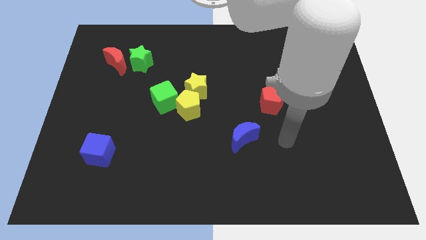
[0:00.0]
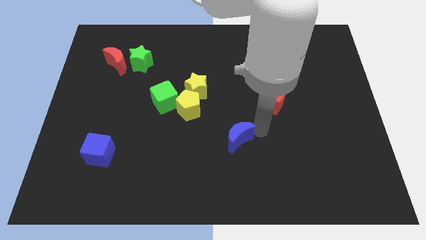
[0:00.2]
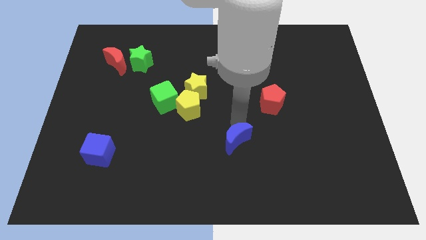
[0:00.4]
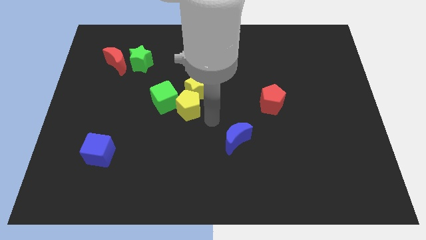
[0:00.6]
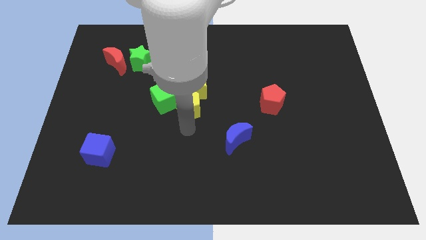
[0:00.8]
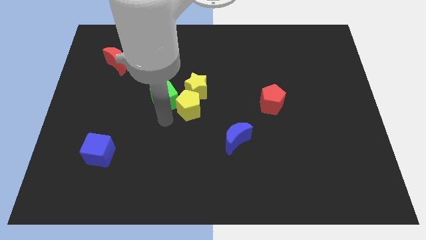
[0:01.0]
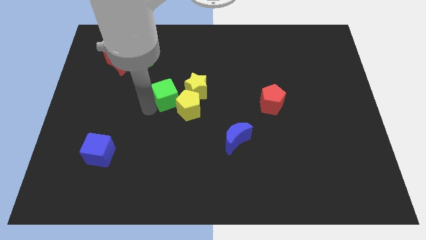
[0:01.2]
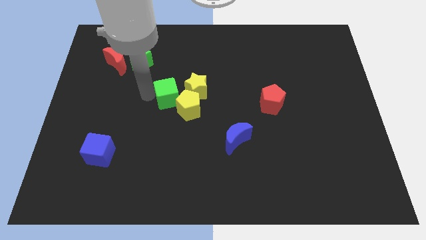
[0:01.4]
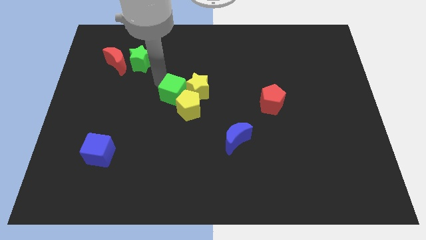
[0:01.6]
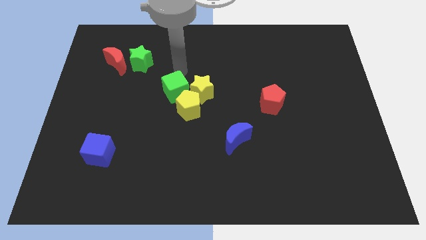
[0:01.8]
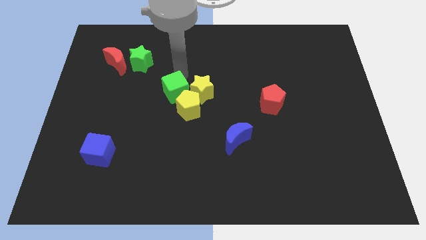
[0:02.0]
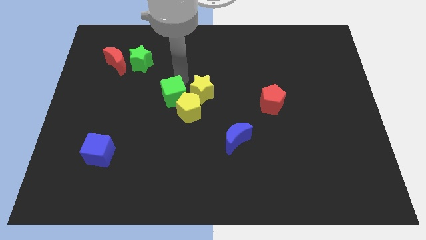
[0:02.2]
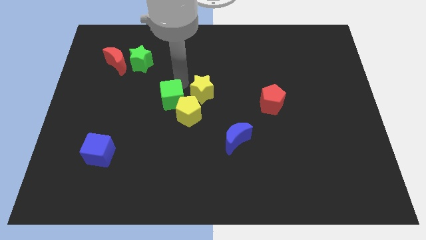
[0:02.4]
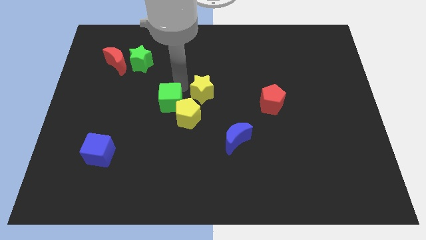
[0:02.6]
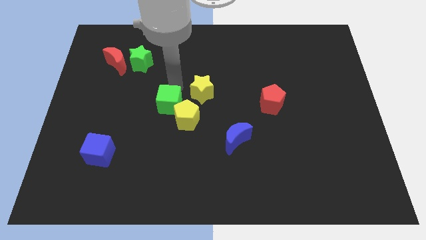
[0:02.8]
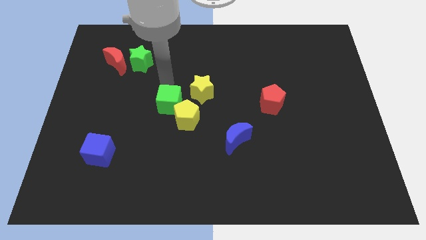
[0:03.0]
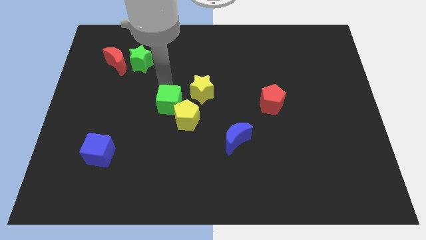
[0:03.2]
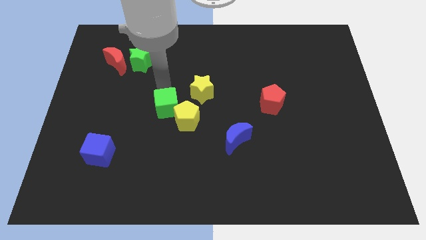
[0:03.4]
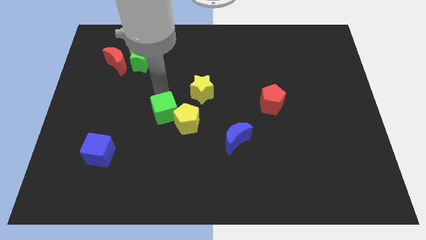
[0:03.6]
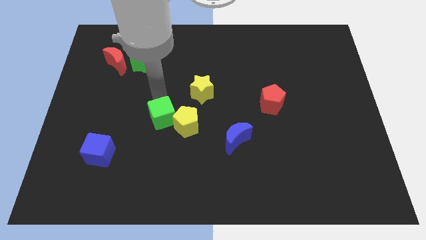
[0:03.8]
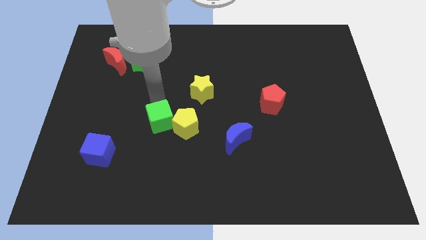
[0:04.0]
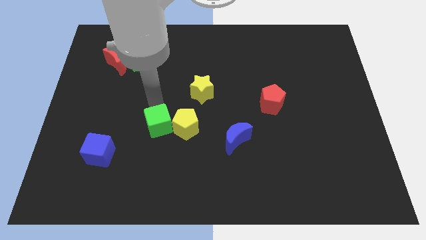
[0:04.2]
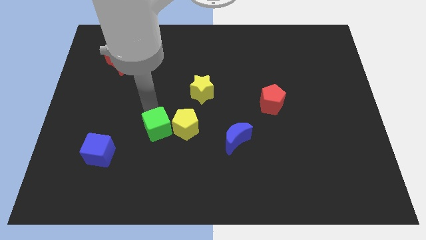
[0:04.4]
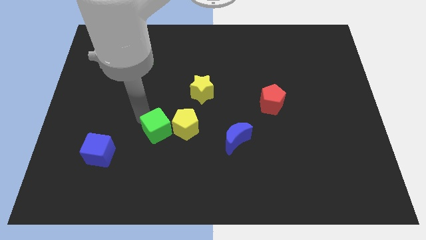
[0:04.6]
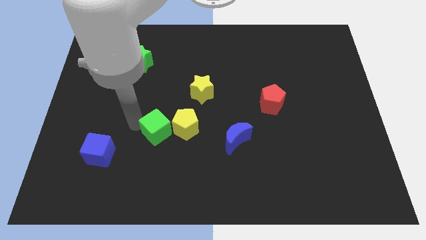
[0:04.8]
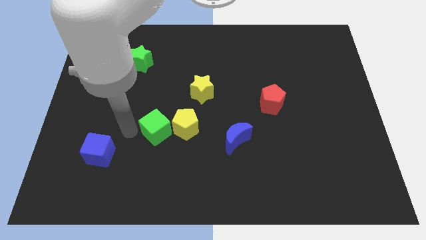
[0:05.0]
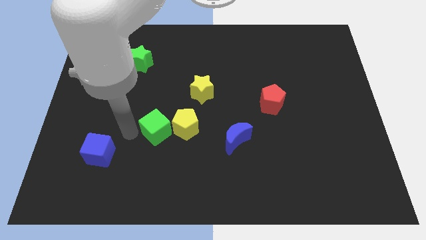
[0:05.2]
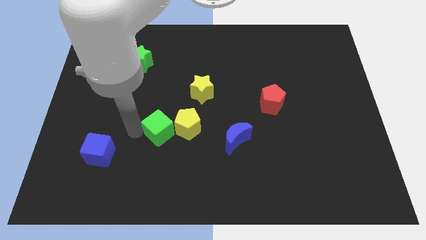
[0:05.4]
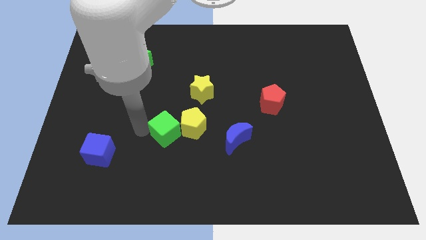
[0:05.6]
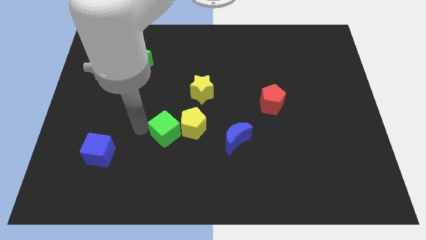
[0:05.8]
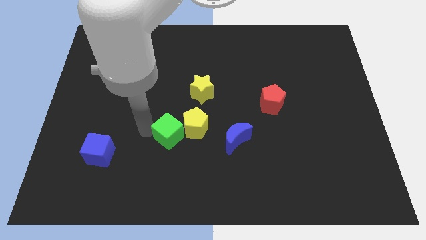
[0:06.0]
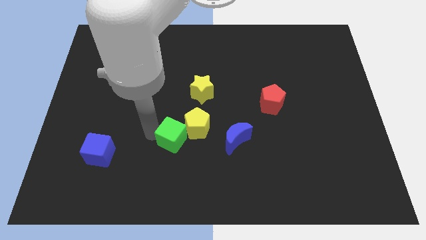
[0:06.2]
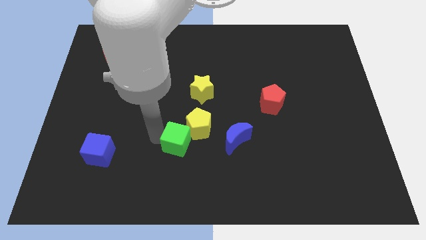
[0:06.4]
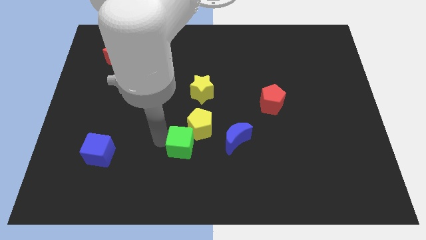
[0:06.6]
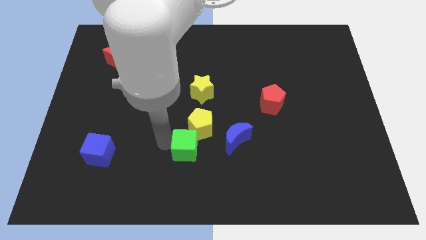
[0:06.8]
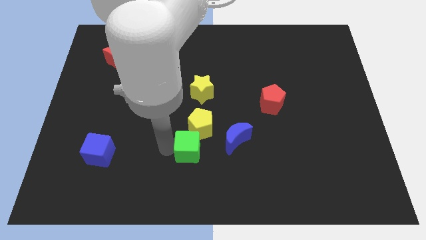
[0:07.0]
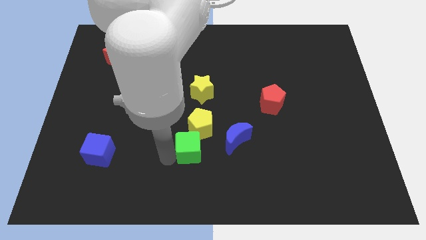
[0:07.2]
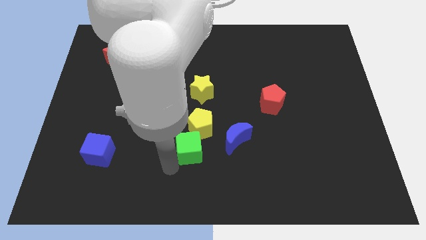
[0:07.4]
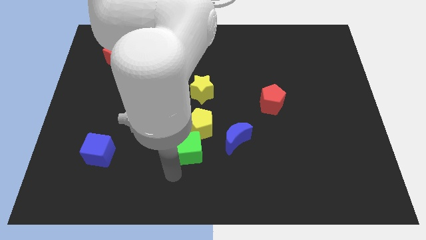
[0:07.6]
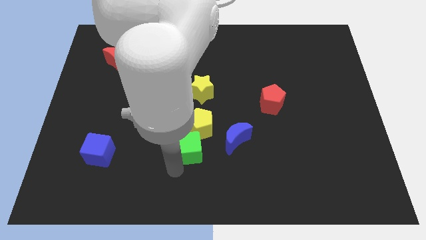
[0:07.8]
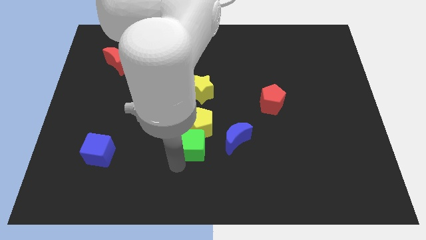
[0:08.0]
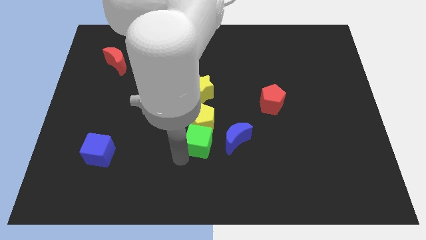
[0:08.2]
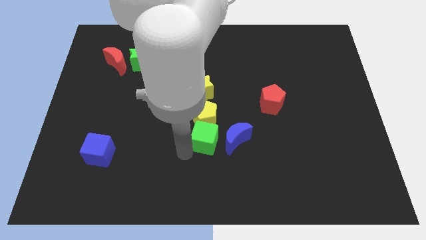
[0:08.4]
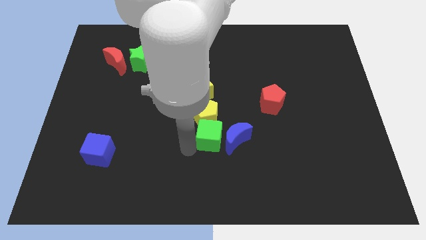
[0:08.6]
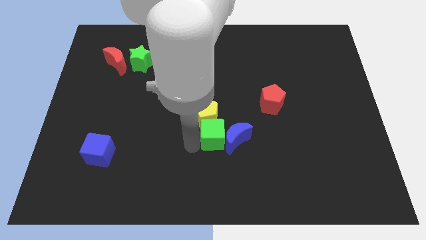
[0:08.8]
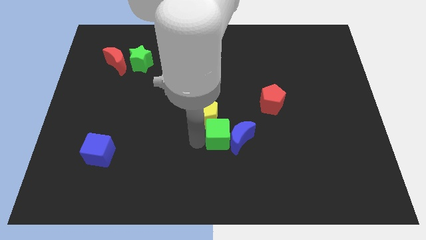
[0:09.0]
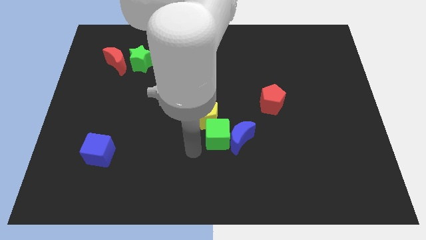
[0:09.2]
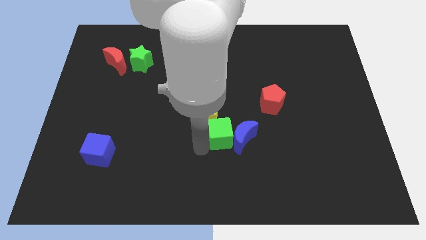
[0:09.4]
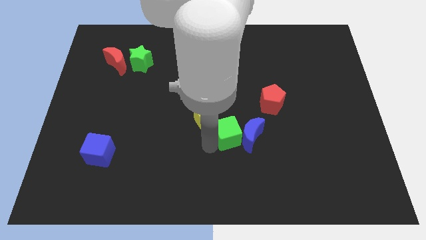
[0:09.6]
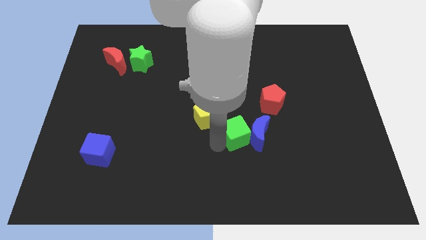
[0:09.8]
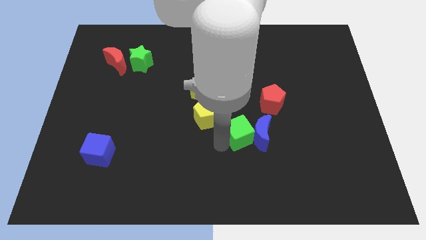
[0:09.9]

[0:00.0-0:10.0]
move the green cube just right of the yellow pentagon

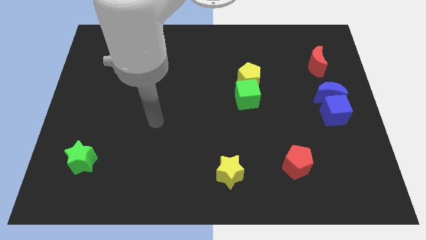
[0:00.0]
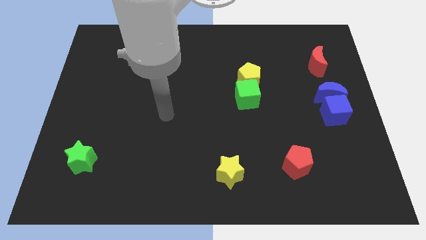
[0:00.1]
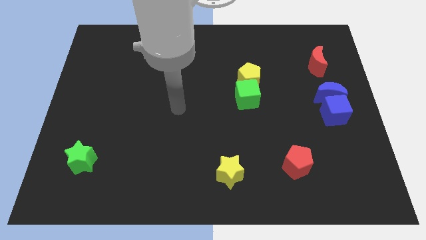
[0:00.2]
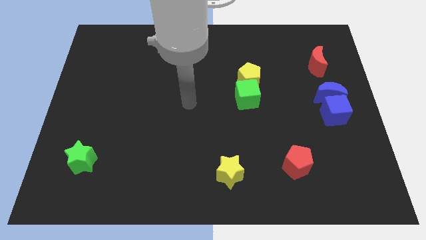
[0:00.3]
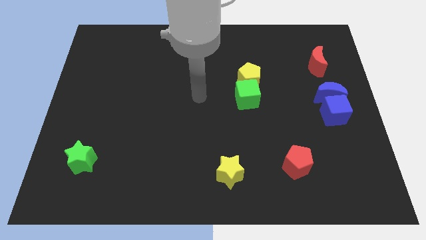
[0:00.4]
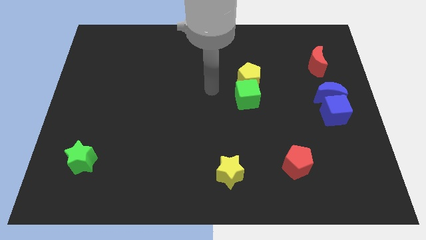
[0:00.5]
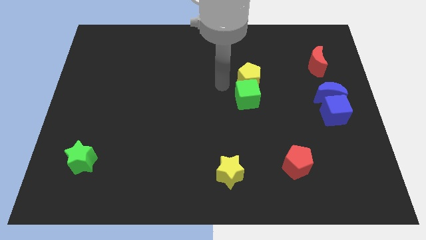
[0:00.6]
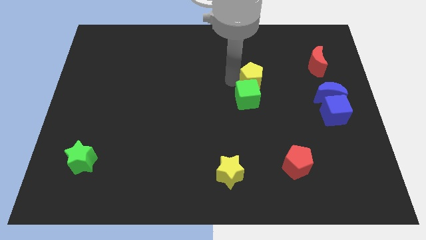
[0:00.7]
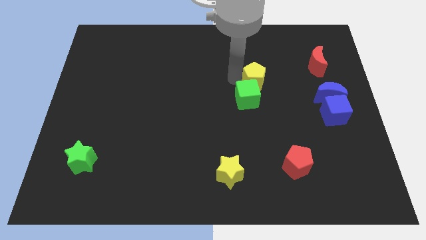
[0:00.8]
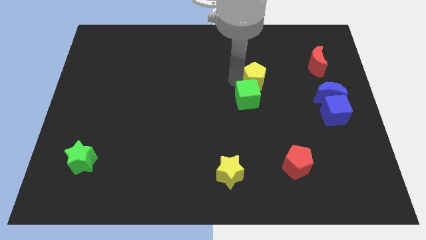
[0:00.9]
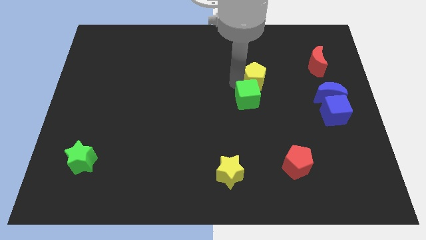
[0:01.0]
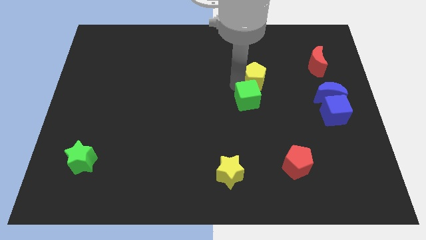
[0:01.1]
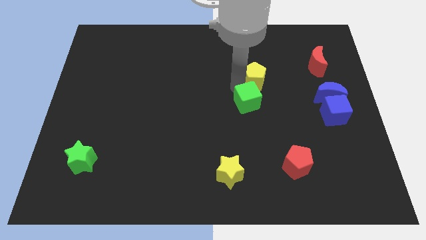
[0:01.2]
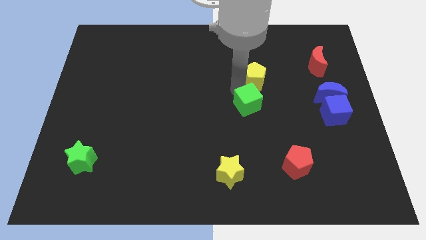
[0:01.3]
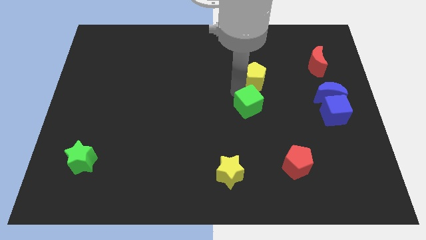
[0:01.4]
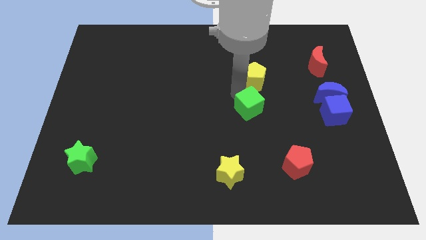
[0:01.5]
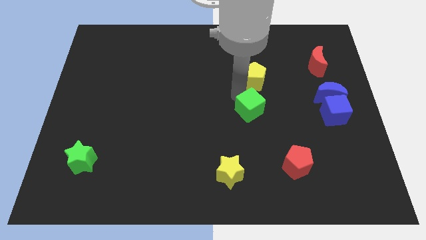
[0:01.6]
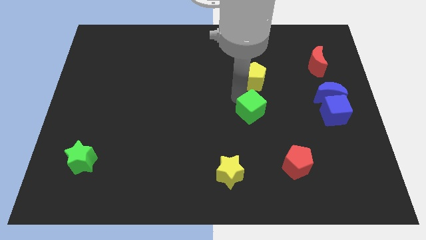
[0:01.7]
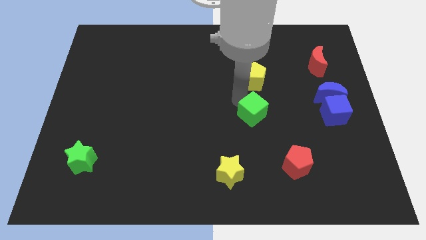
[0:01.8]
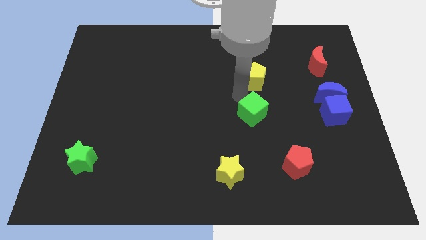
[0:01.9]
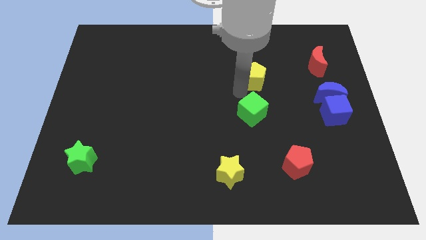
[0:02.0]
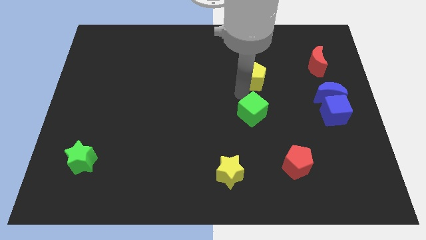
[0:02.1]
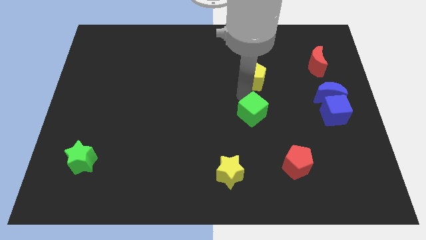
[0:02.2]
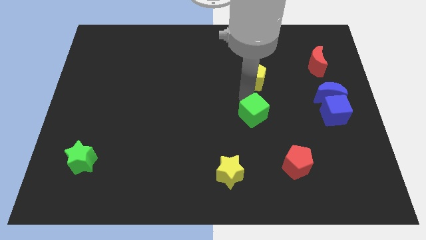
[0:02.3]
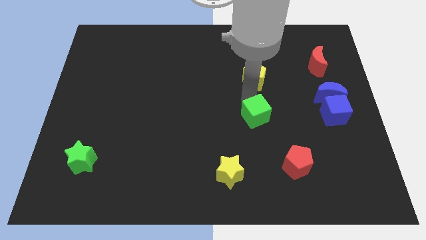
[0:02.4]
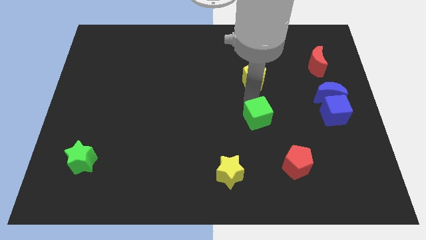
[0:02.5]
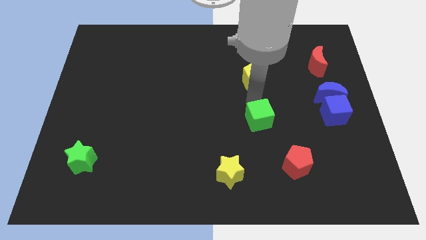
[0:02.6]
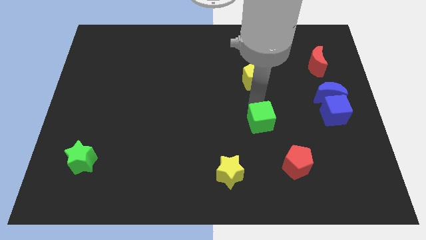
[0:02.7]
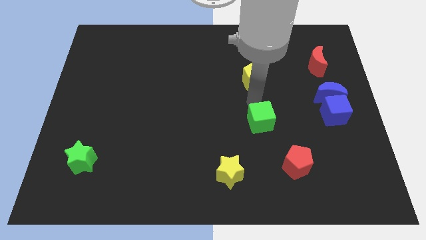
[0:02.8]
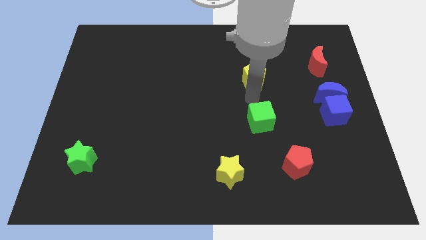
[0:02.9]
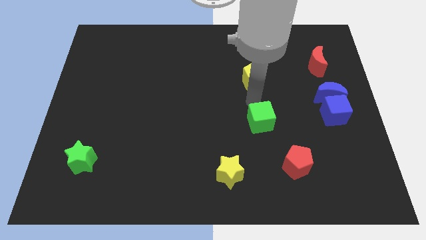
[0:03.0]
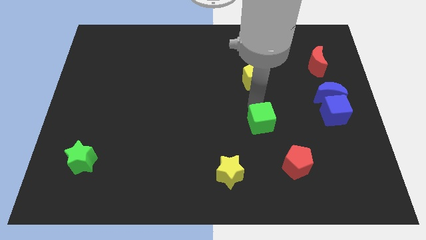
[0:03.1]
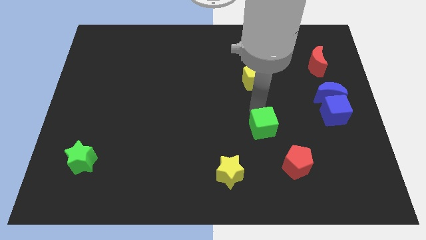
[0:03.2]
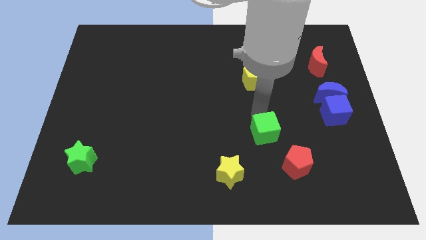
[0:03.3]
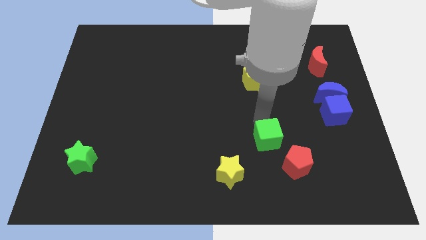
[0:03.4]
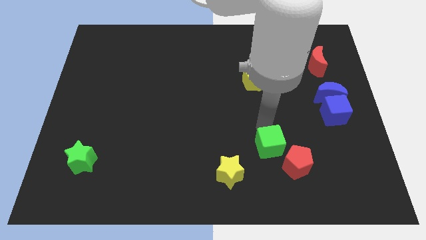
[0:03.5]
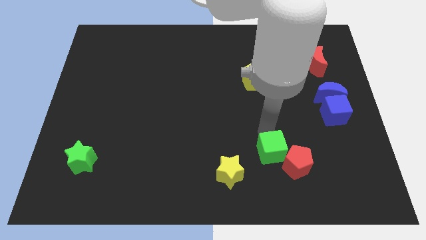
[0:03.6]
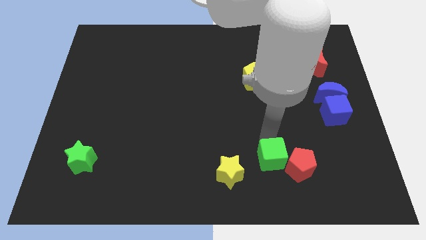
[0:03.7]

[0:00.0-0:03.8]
push the green cube just right of the yellow star
